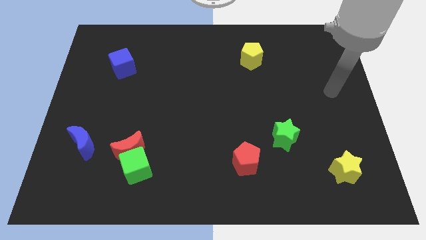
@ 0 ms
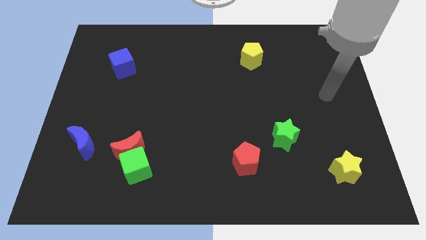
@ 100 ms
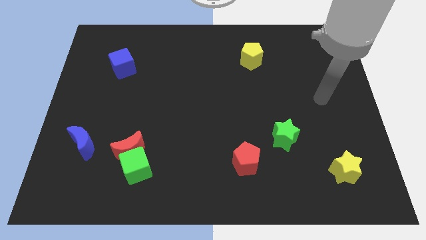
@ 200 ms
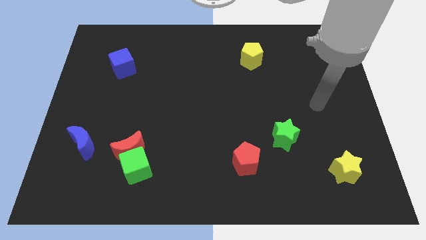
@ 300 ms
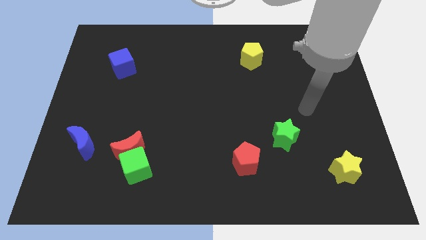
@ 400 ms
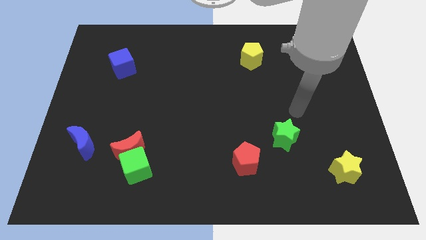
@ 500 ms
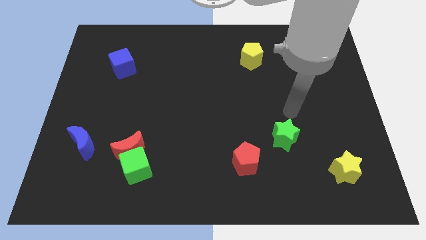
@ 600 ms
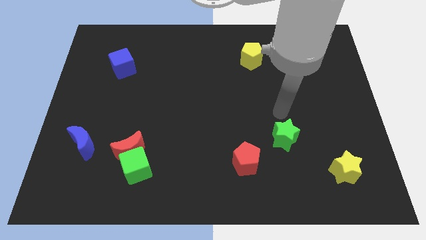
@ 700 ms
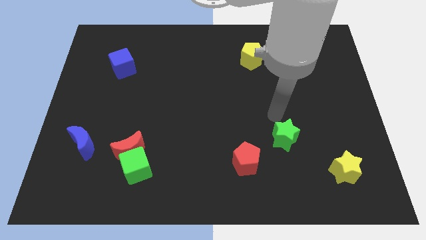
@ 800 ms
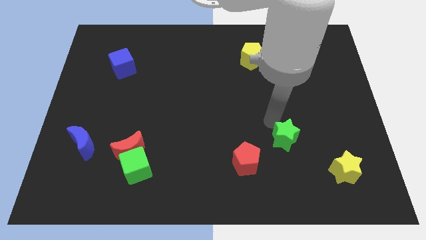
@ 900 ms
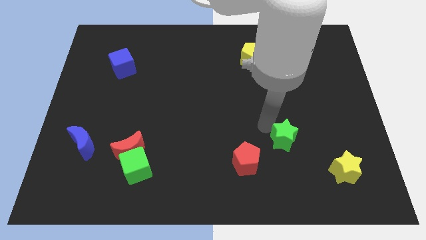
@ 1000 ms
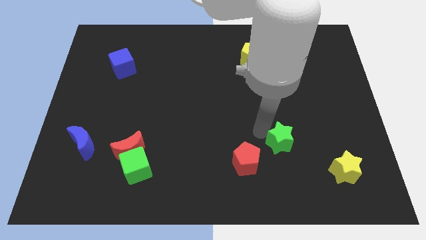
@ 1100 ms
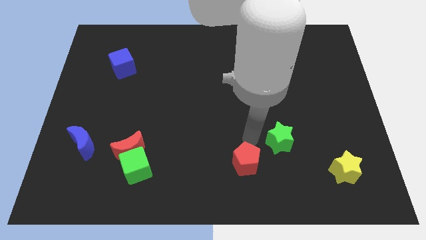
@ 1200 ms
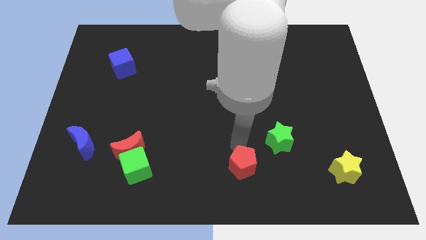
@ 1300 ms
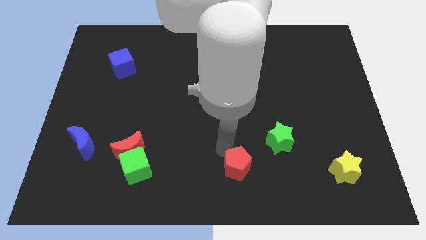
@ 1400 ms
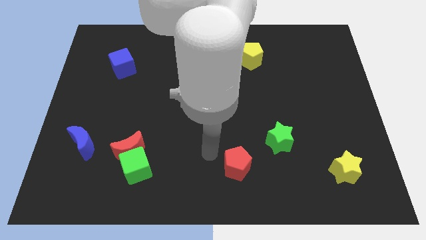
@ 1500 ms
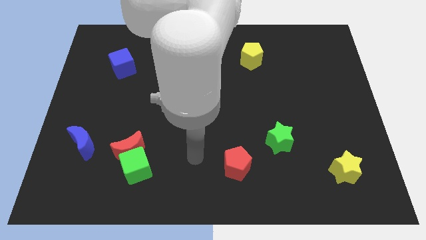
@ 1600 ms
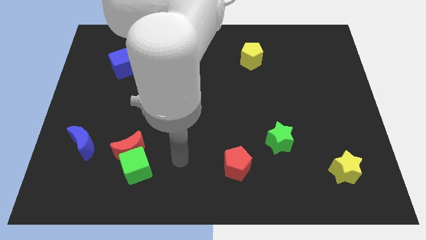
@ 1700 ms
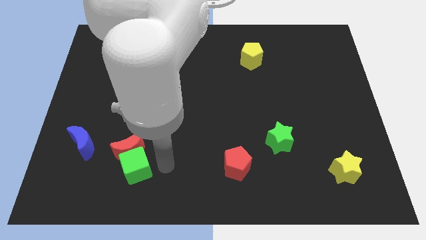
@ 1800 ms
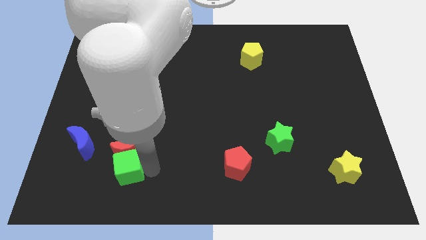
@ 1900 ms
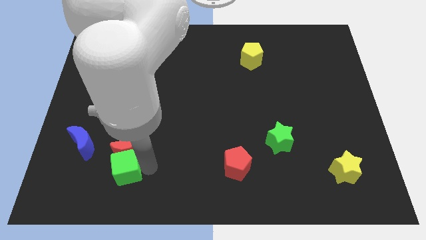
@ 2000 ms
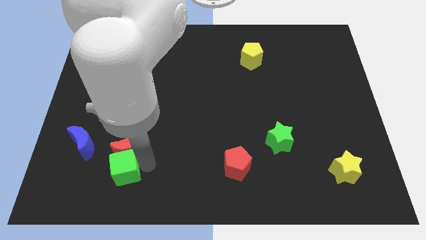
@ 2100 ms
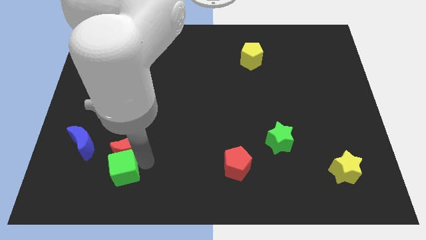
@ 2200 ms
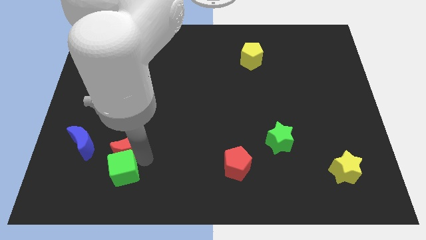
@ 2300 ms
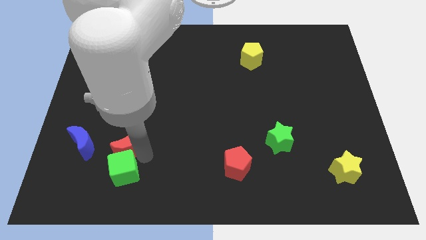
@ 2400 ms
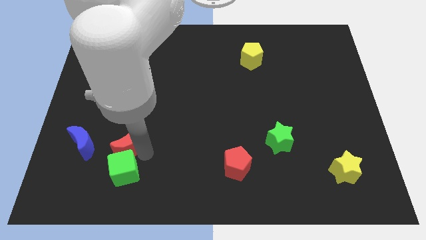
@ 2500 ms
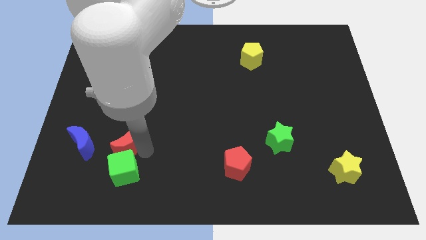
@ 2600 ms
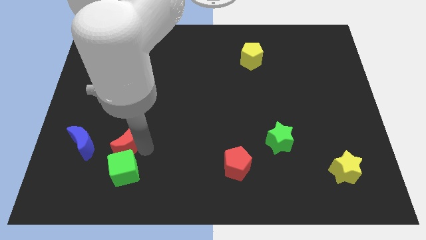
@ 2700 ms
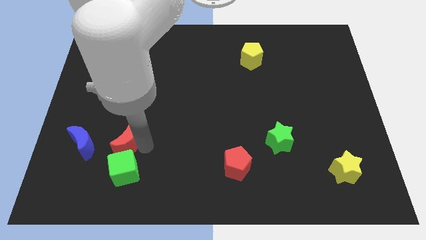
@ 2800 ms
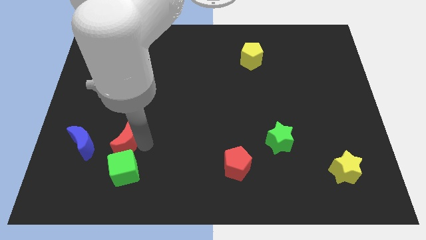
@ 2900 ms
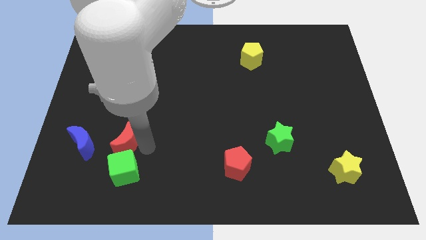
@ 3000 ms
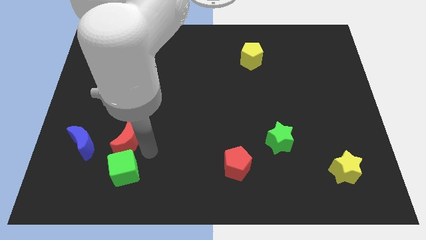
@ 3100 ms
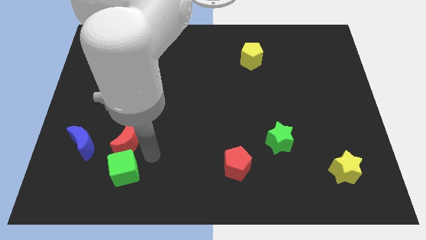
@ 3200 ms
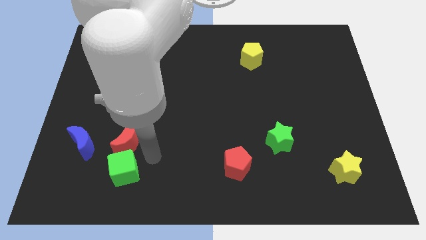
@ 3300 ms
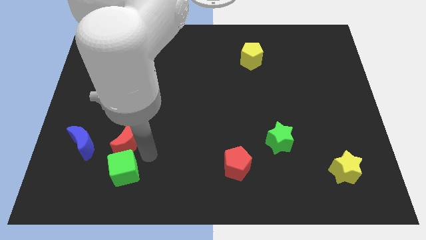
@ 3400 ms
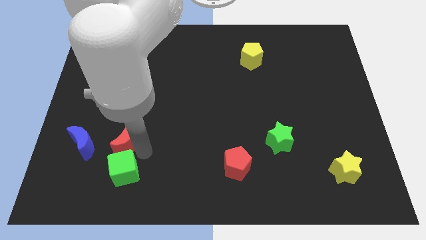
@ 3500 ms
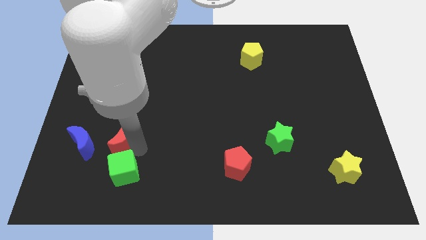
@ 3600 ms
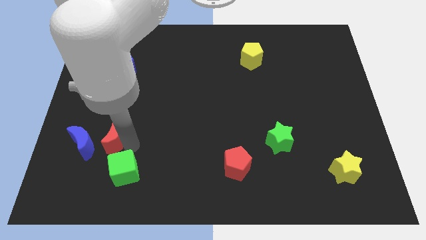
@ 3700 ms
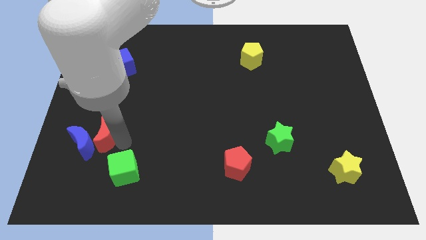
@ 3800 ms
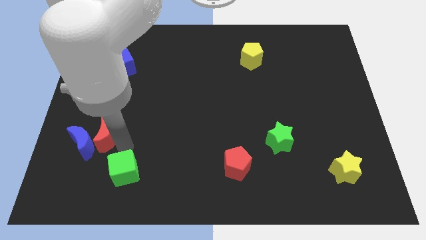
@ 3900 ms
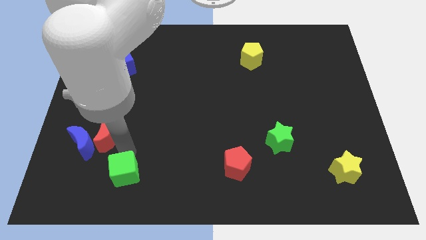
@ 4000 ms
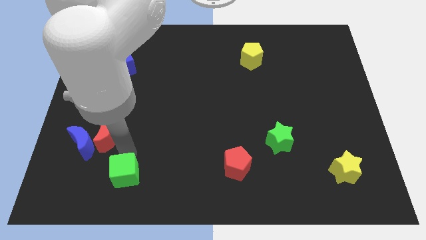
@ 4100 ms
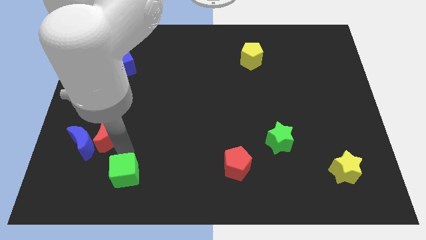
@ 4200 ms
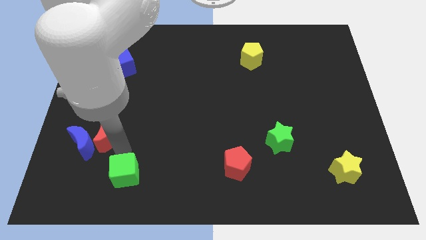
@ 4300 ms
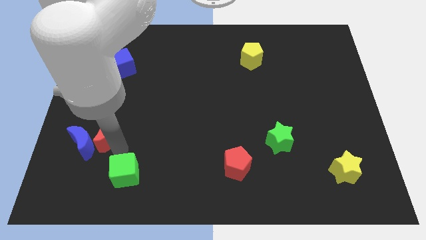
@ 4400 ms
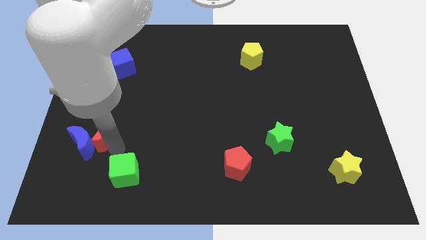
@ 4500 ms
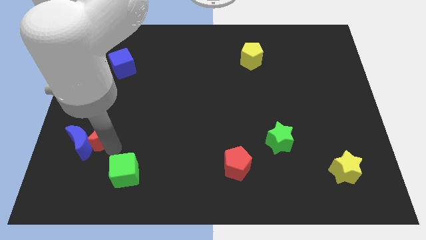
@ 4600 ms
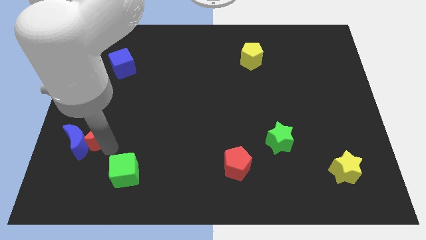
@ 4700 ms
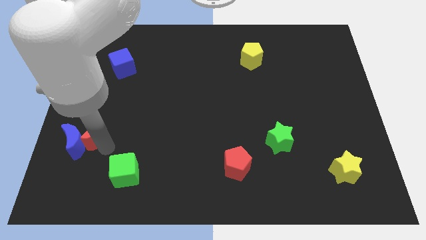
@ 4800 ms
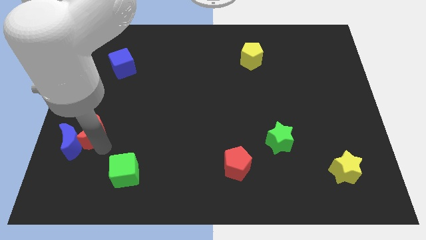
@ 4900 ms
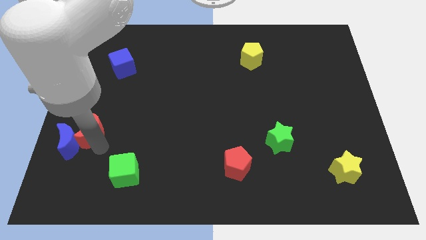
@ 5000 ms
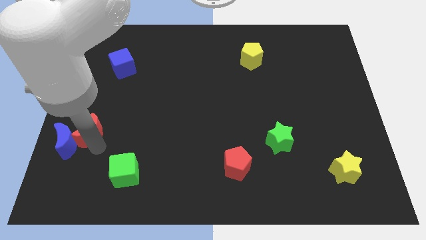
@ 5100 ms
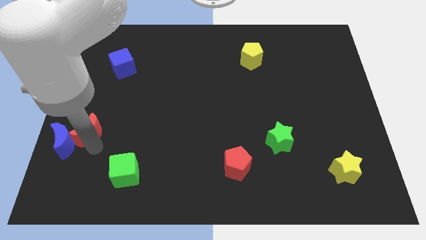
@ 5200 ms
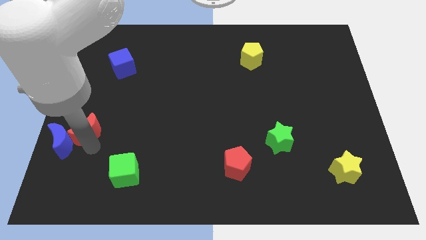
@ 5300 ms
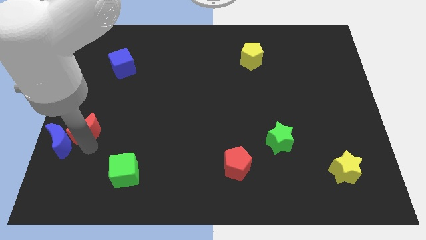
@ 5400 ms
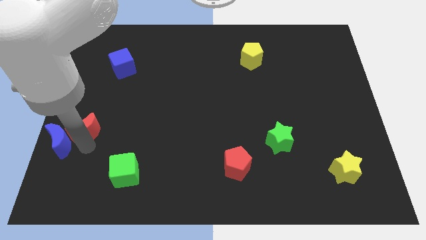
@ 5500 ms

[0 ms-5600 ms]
move the red moon to the left side of the board

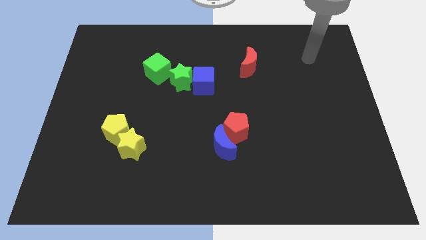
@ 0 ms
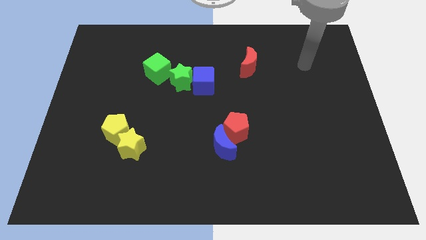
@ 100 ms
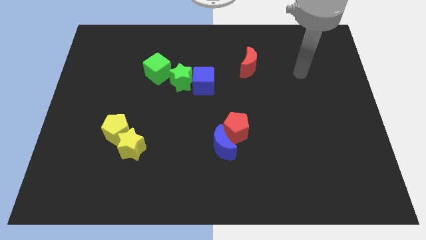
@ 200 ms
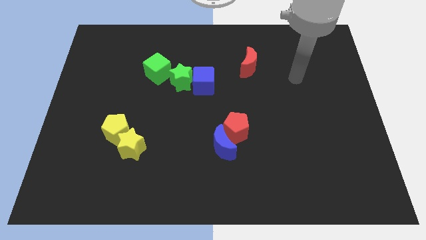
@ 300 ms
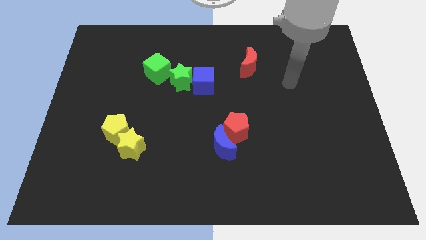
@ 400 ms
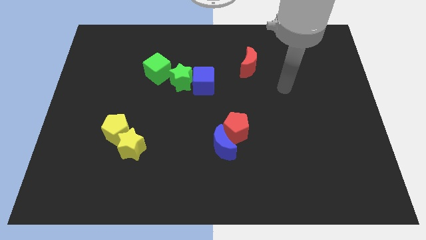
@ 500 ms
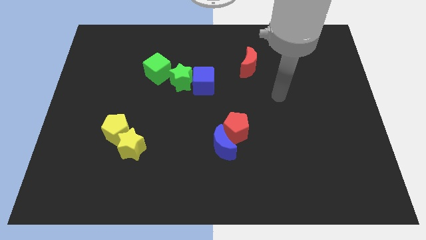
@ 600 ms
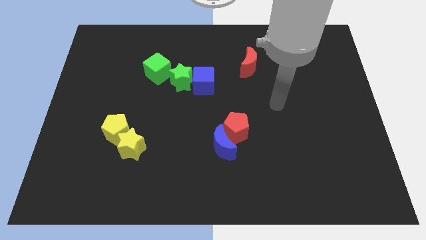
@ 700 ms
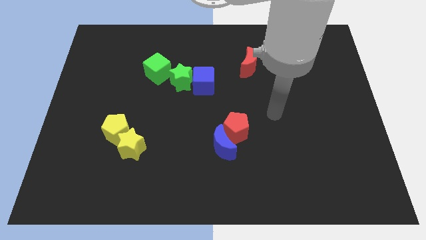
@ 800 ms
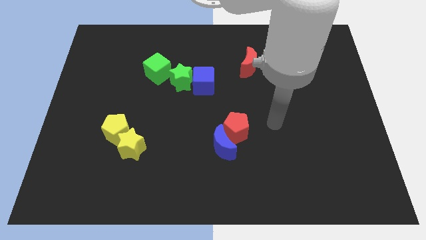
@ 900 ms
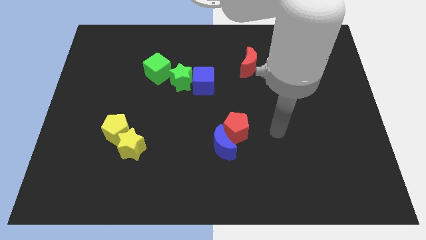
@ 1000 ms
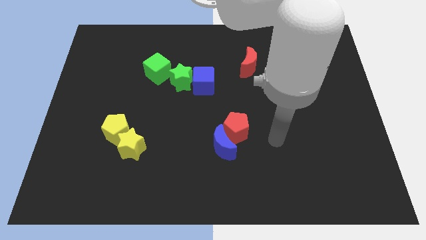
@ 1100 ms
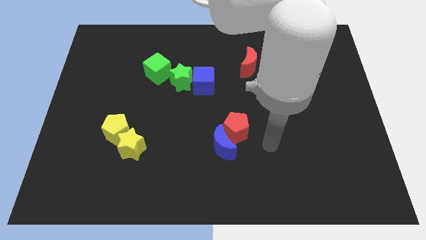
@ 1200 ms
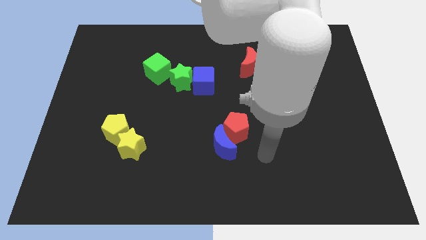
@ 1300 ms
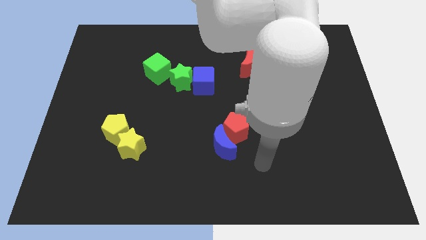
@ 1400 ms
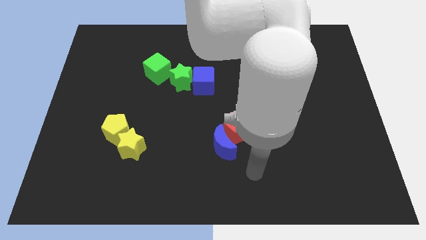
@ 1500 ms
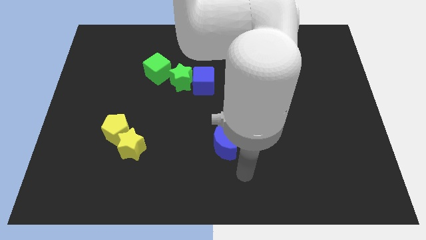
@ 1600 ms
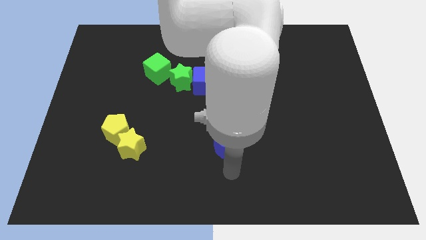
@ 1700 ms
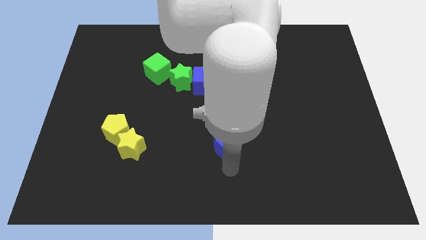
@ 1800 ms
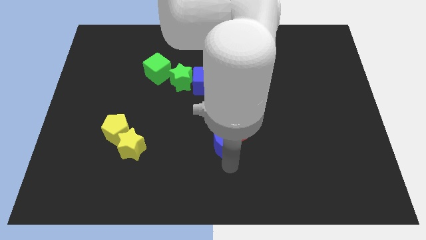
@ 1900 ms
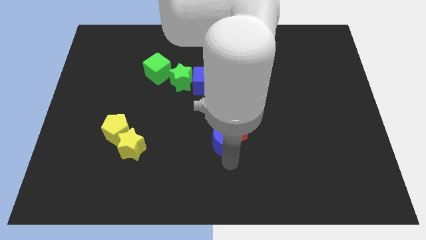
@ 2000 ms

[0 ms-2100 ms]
slide the blue moon to the middle of the board
